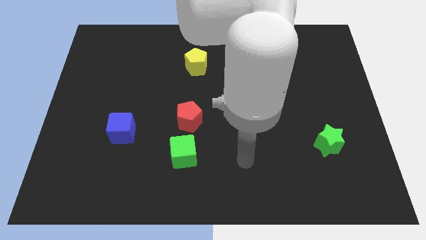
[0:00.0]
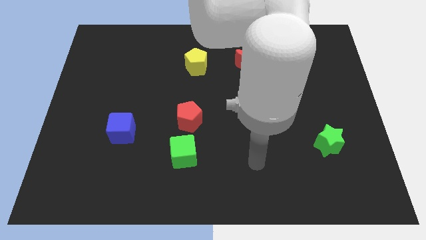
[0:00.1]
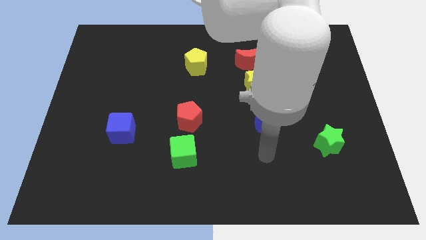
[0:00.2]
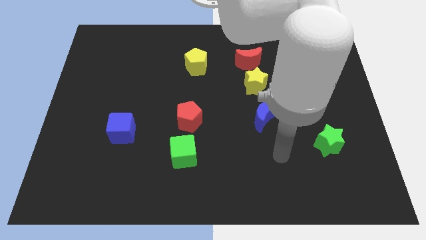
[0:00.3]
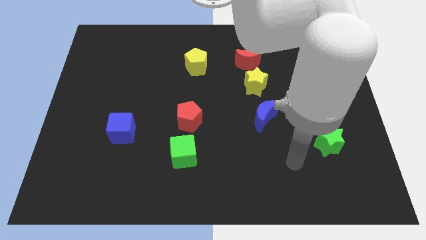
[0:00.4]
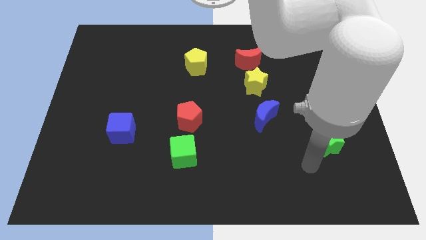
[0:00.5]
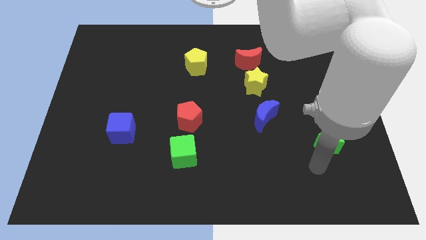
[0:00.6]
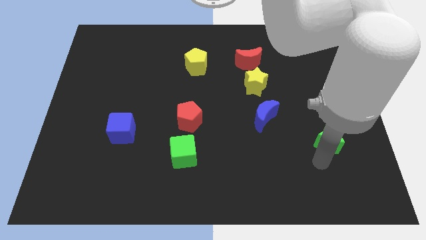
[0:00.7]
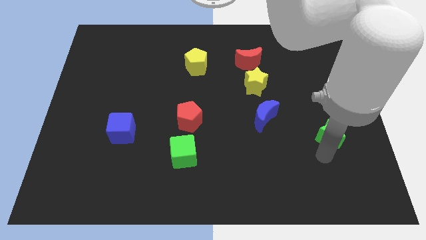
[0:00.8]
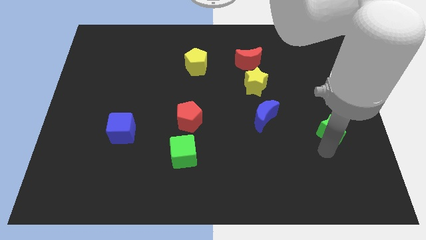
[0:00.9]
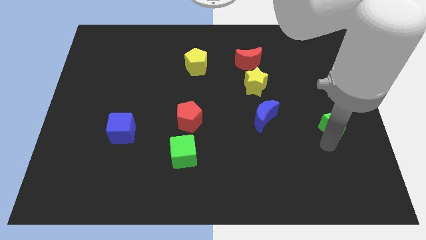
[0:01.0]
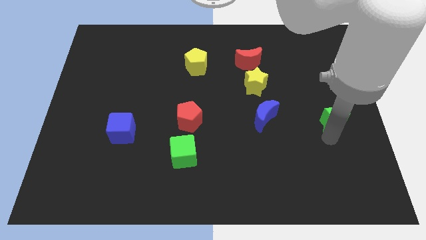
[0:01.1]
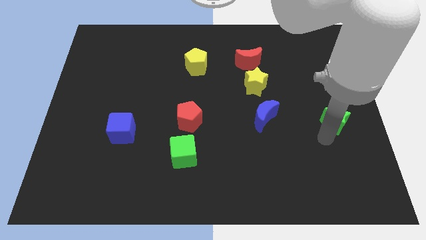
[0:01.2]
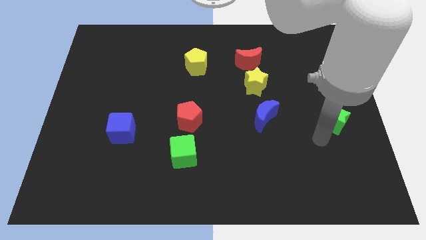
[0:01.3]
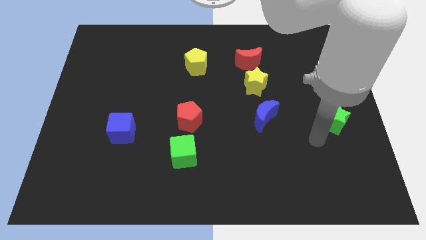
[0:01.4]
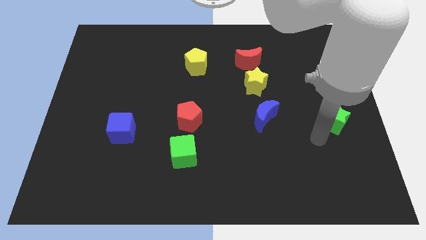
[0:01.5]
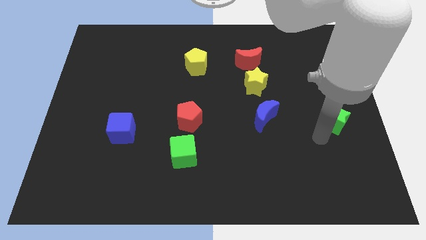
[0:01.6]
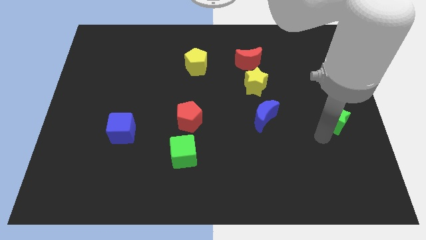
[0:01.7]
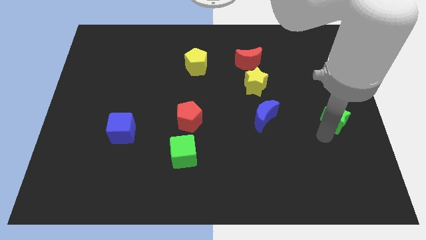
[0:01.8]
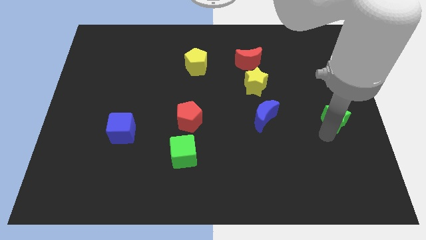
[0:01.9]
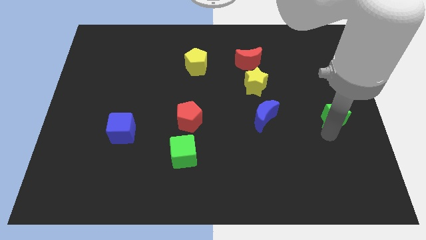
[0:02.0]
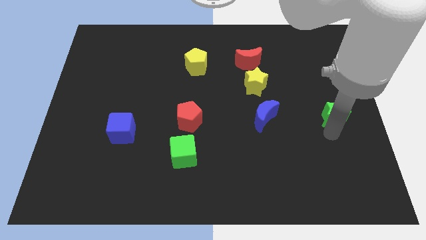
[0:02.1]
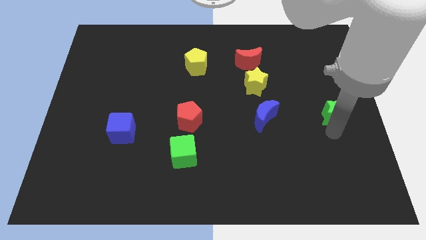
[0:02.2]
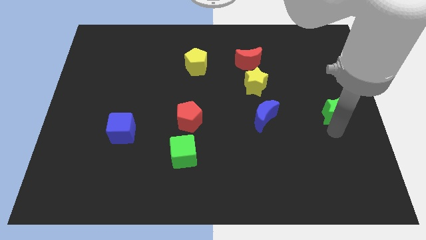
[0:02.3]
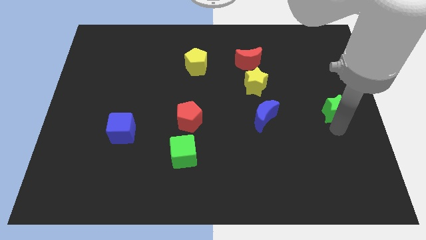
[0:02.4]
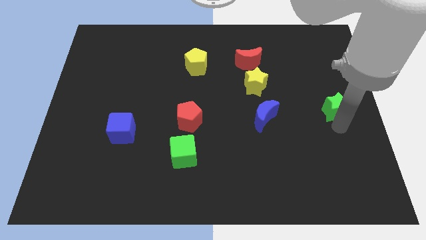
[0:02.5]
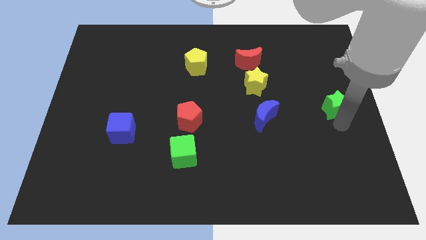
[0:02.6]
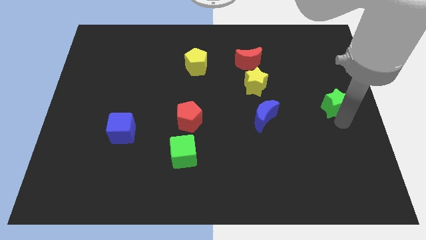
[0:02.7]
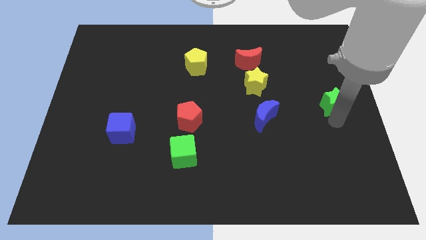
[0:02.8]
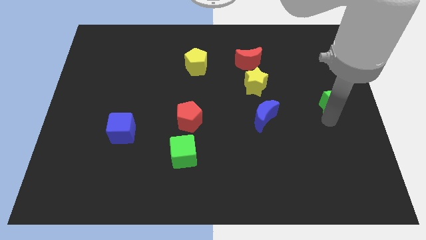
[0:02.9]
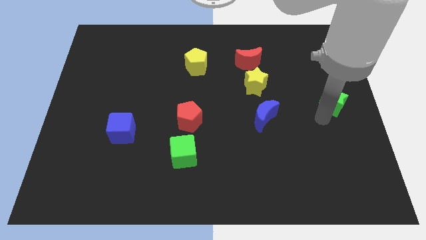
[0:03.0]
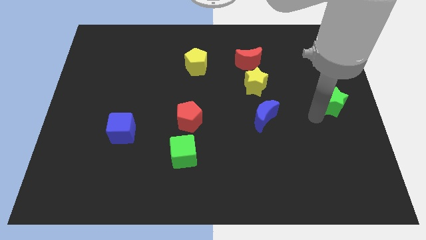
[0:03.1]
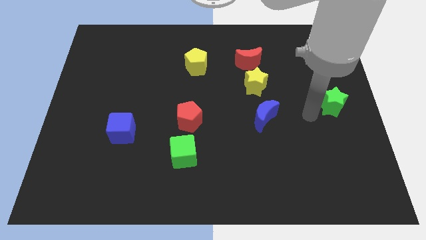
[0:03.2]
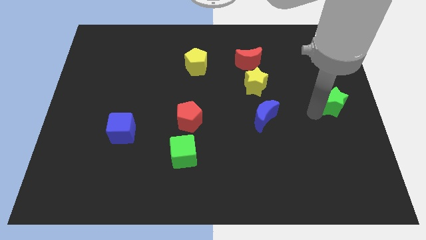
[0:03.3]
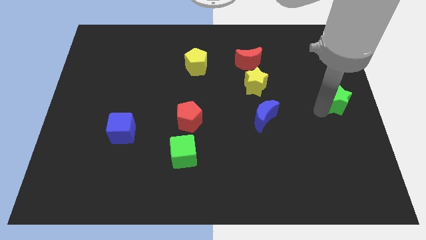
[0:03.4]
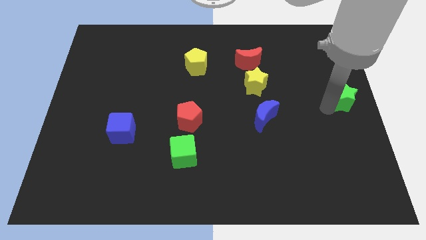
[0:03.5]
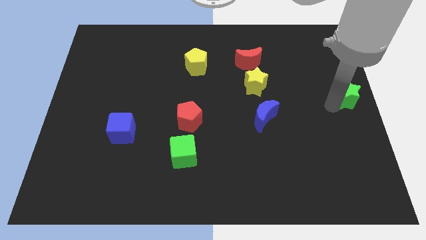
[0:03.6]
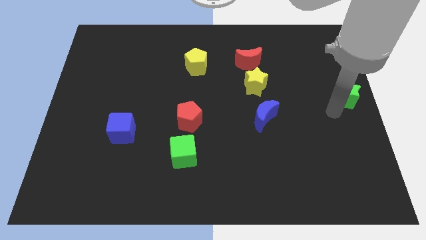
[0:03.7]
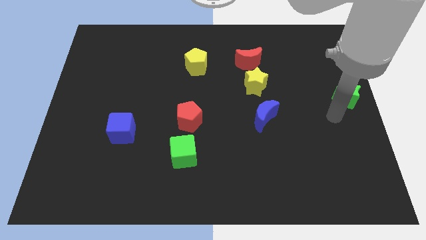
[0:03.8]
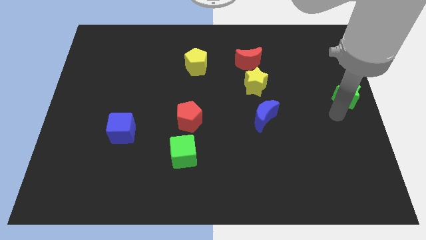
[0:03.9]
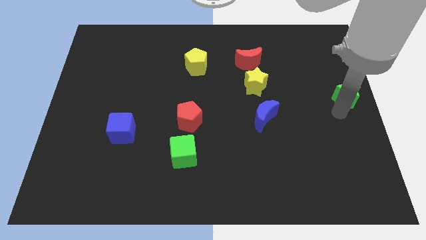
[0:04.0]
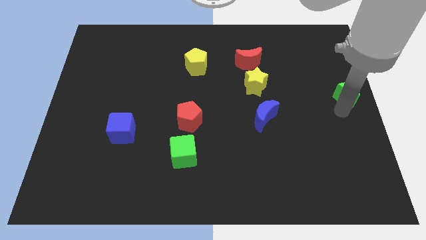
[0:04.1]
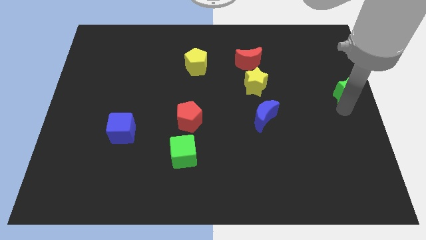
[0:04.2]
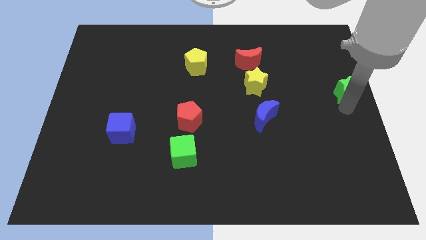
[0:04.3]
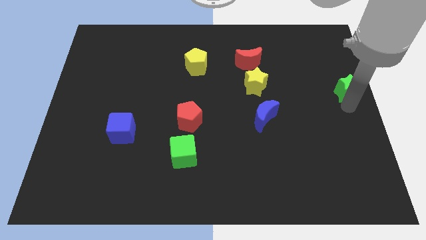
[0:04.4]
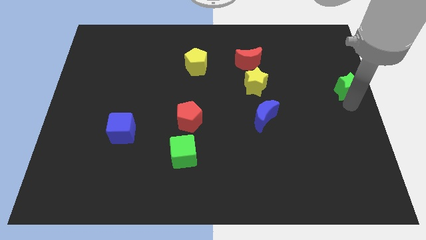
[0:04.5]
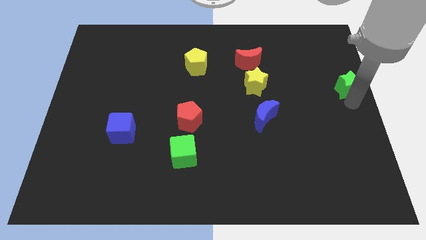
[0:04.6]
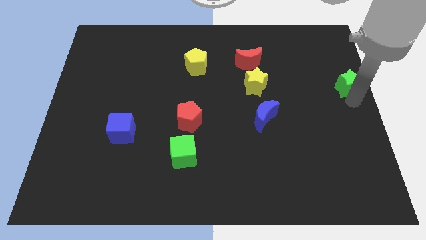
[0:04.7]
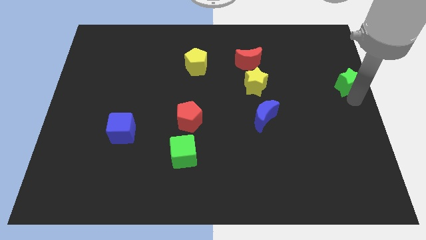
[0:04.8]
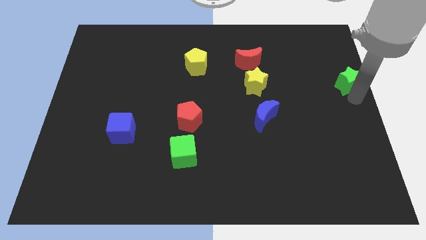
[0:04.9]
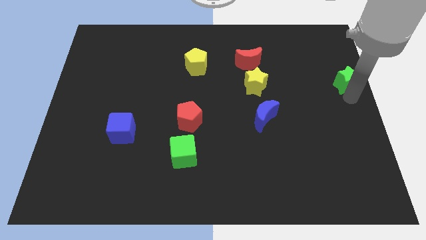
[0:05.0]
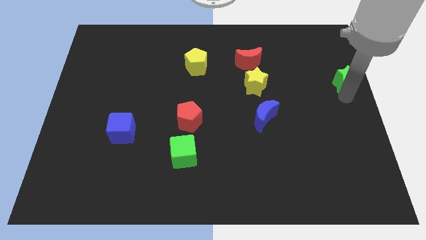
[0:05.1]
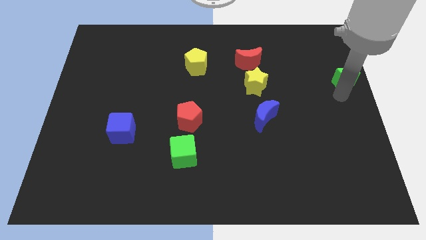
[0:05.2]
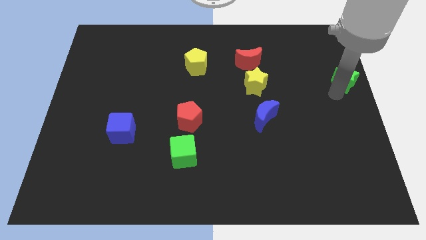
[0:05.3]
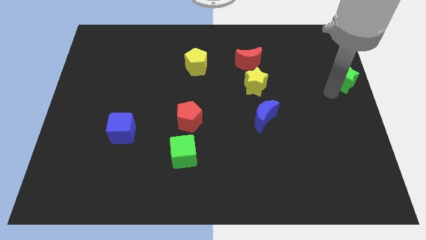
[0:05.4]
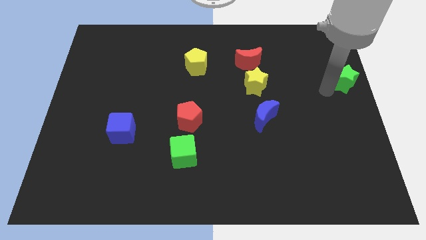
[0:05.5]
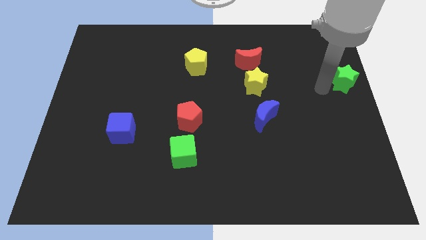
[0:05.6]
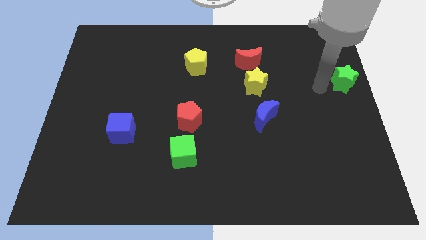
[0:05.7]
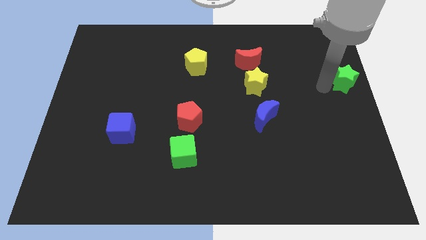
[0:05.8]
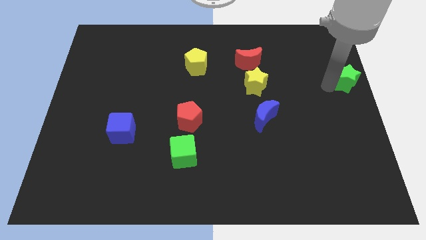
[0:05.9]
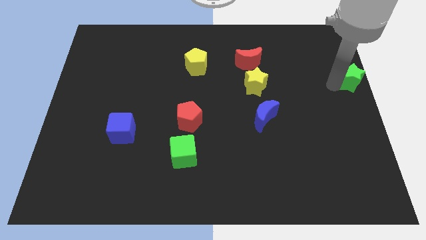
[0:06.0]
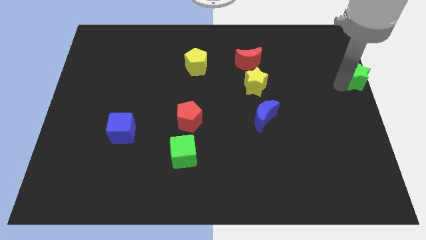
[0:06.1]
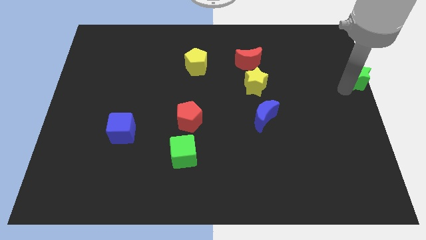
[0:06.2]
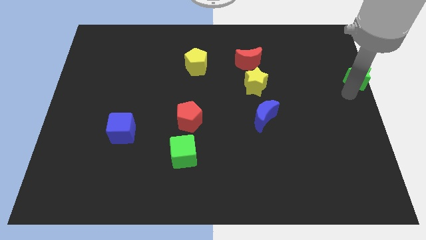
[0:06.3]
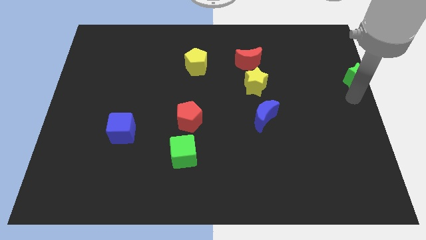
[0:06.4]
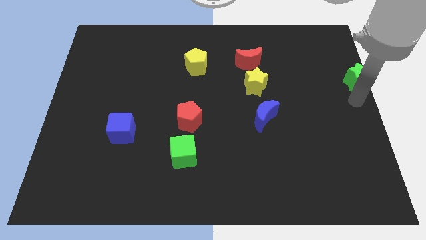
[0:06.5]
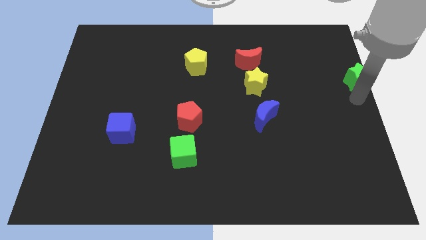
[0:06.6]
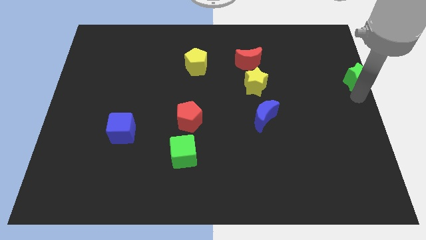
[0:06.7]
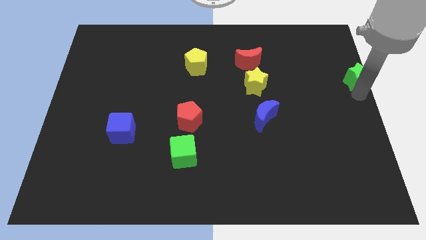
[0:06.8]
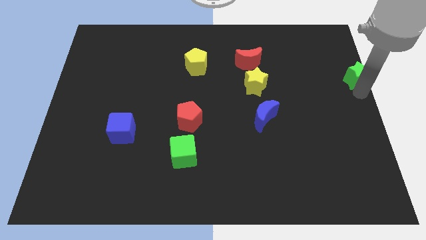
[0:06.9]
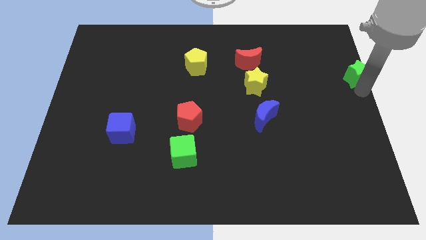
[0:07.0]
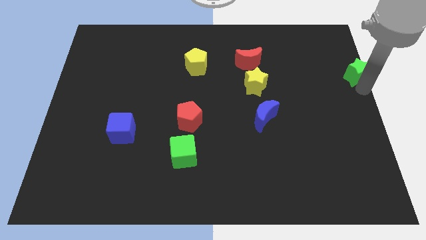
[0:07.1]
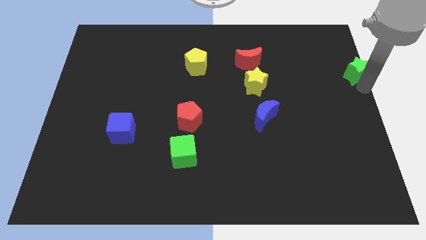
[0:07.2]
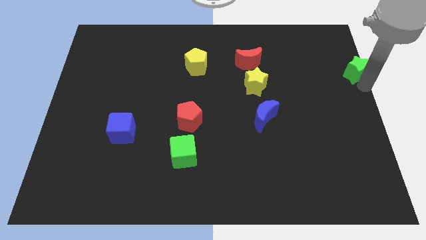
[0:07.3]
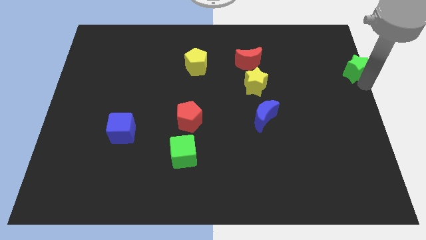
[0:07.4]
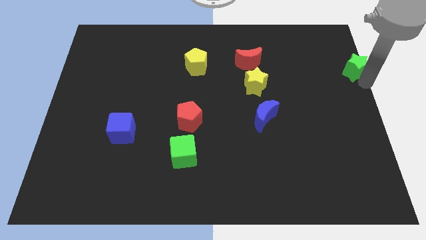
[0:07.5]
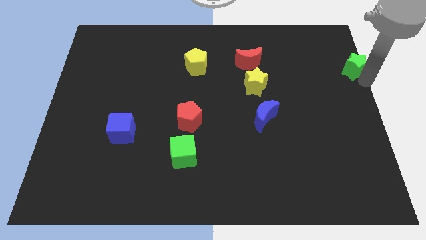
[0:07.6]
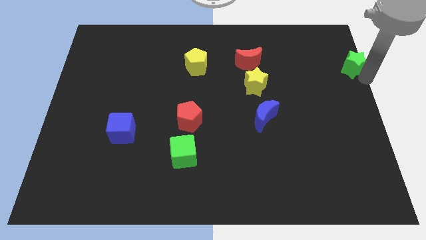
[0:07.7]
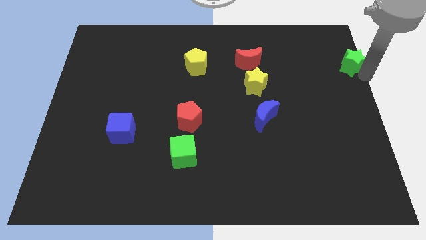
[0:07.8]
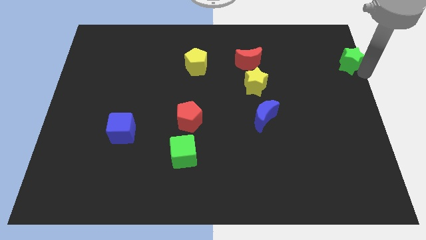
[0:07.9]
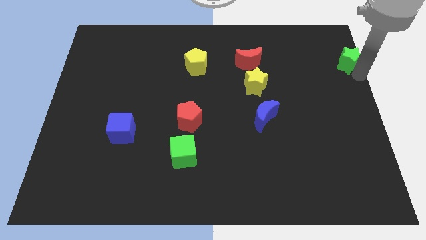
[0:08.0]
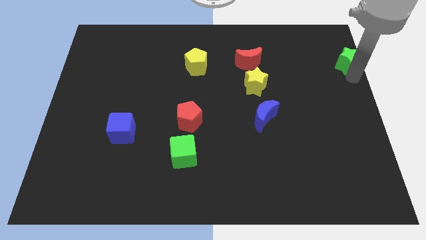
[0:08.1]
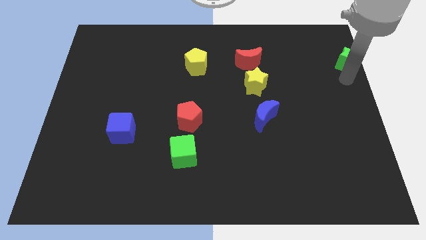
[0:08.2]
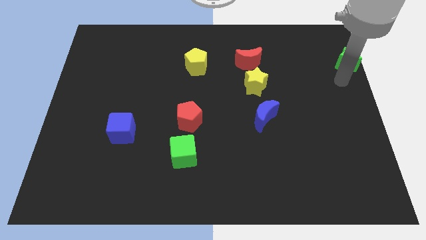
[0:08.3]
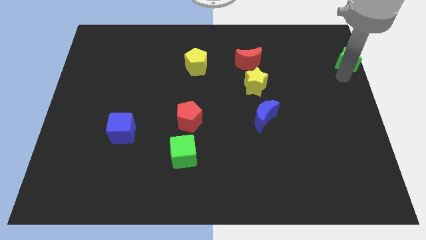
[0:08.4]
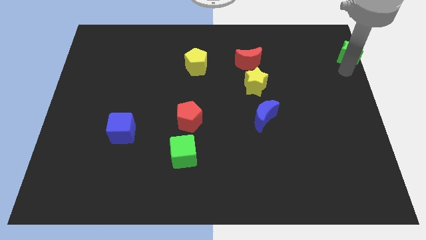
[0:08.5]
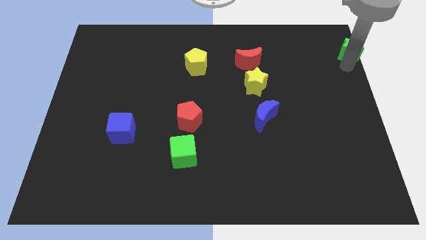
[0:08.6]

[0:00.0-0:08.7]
slide the green star to the top right corner
